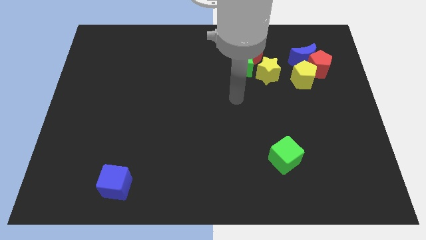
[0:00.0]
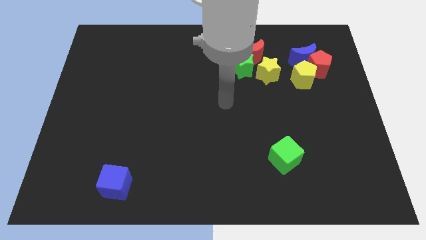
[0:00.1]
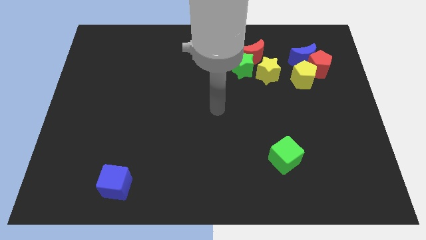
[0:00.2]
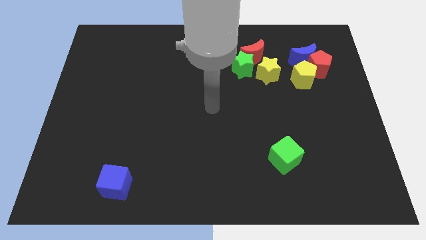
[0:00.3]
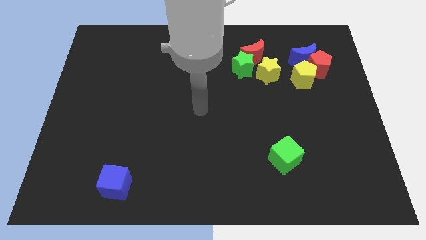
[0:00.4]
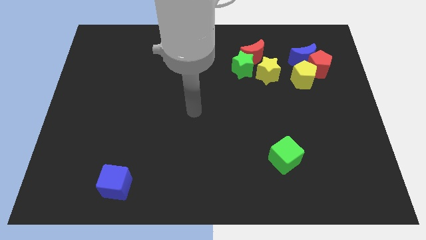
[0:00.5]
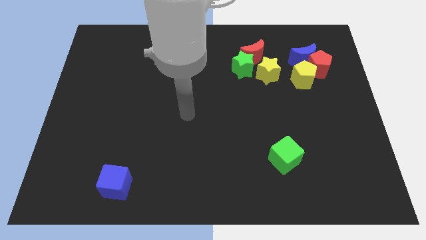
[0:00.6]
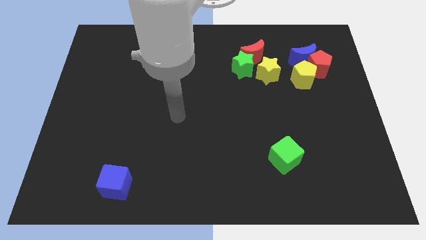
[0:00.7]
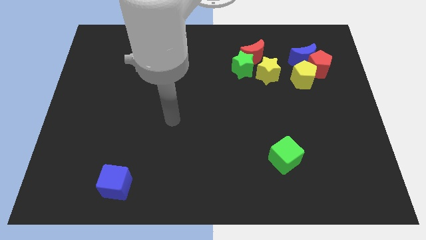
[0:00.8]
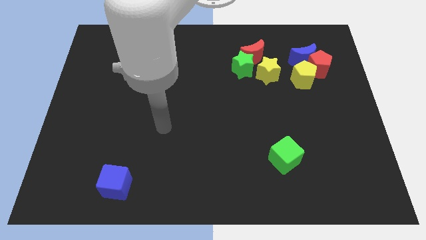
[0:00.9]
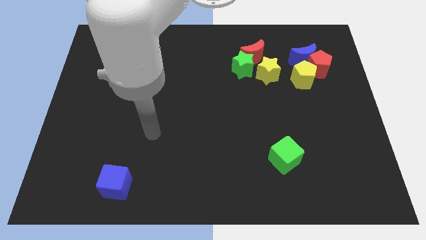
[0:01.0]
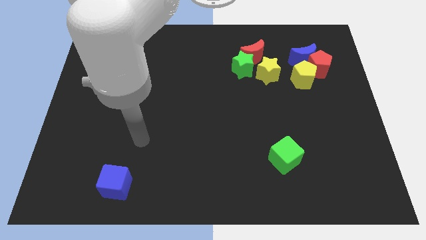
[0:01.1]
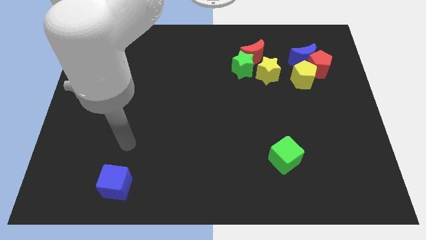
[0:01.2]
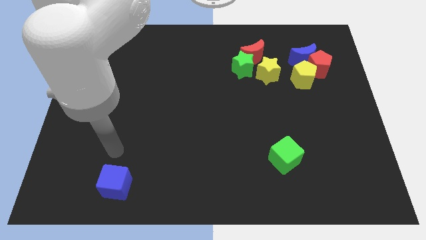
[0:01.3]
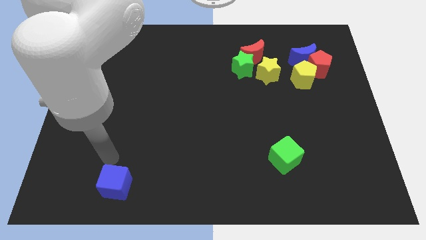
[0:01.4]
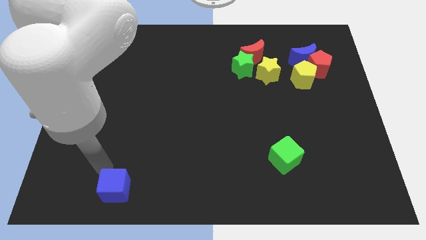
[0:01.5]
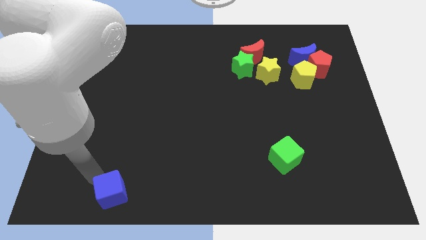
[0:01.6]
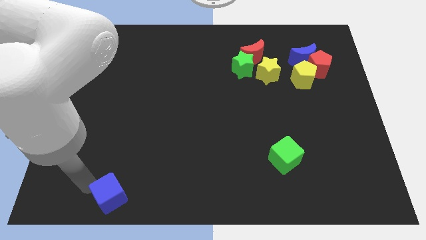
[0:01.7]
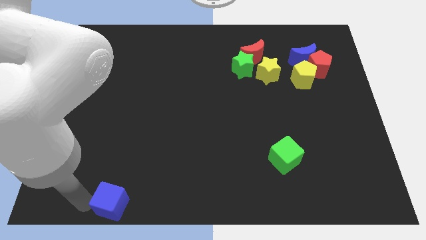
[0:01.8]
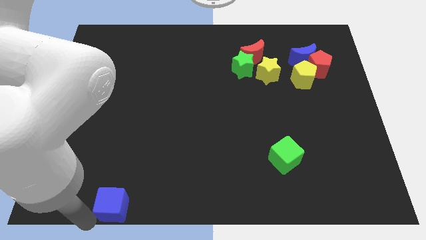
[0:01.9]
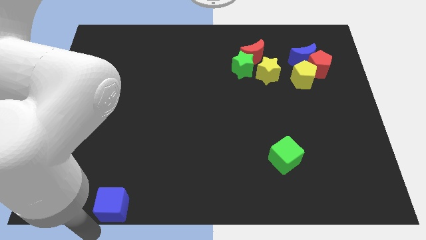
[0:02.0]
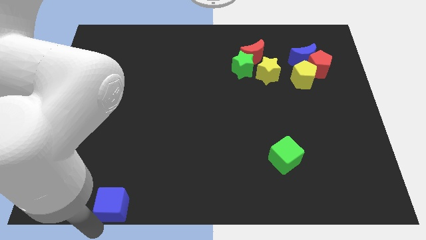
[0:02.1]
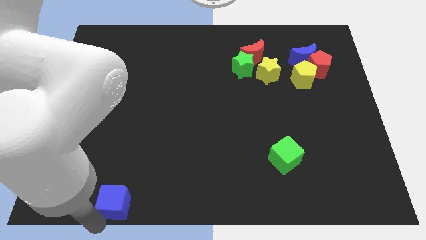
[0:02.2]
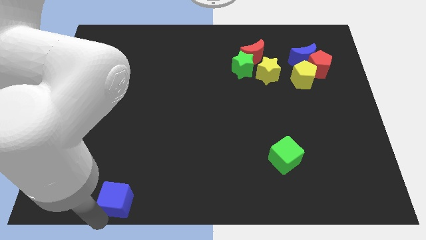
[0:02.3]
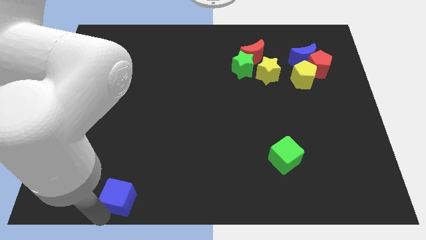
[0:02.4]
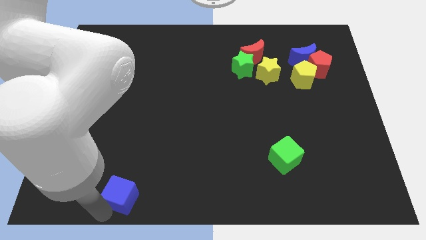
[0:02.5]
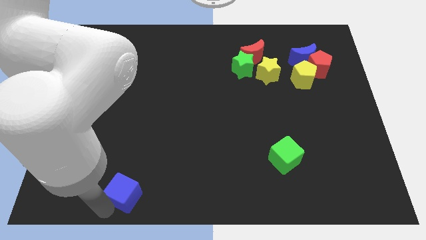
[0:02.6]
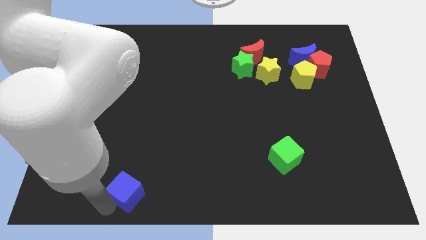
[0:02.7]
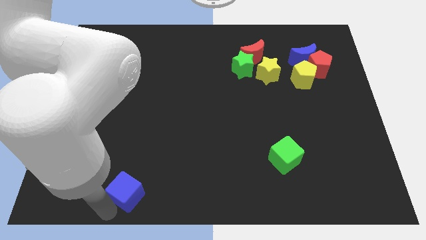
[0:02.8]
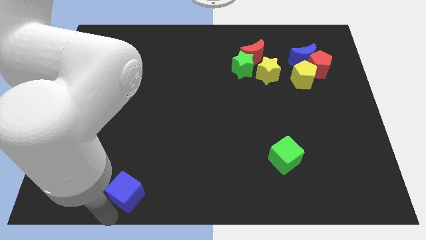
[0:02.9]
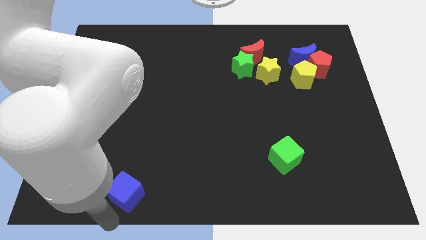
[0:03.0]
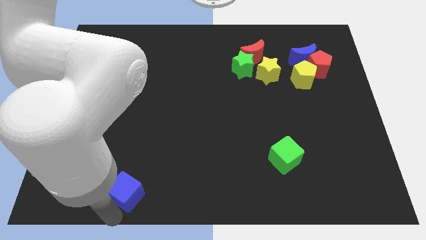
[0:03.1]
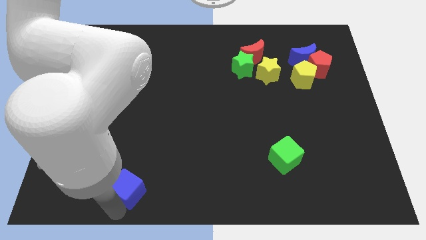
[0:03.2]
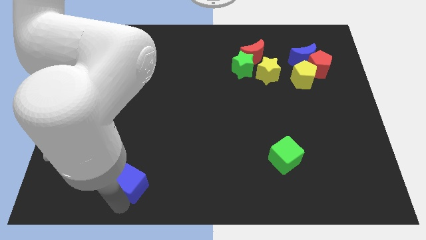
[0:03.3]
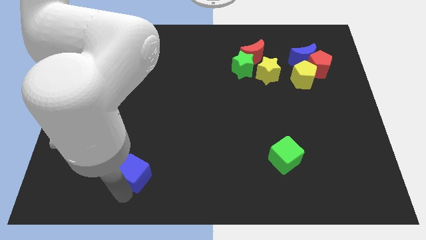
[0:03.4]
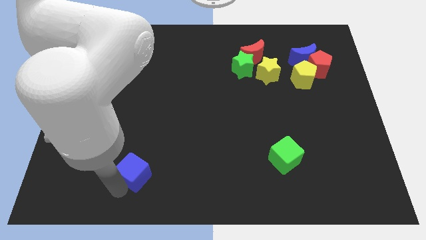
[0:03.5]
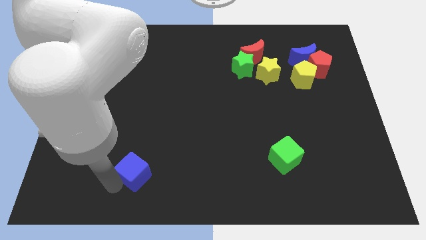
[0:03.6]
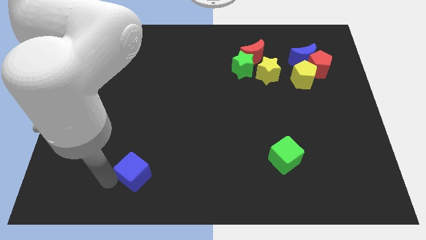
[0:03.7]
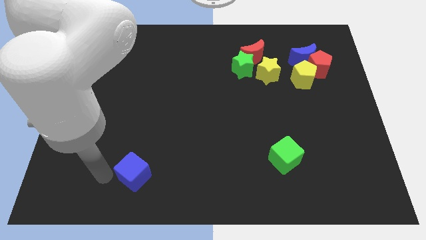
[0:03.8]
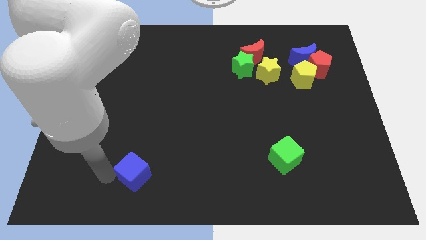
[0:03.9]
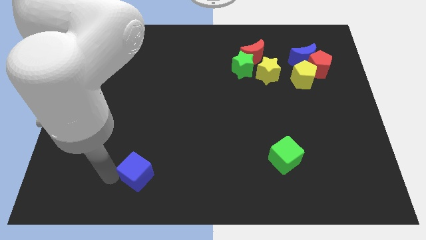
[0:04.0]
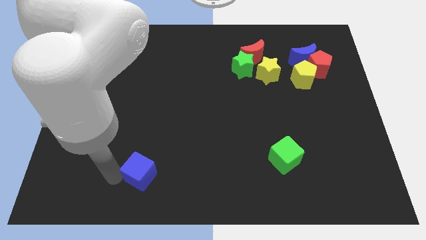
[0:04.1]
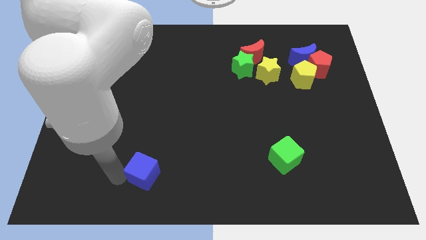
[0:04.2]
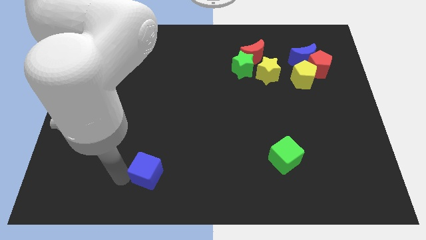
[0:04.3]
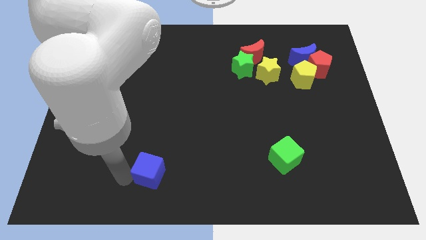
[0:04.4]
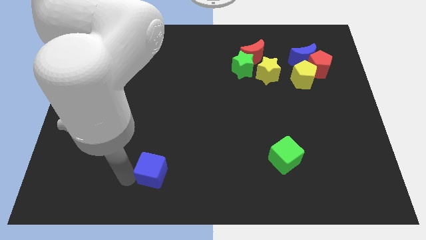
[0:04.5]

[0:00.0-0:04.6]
slide the blue cube slightly right

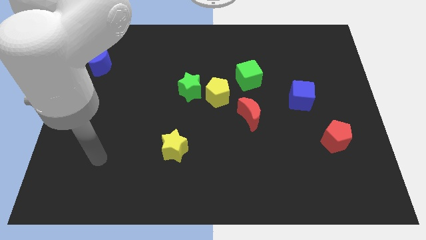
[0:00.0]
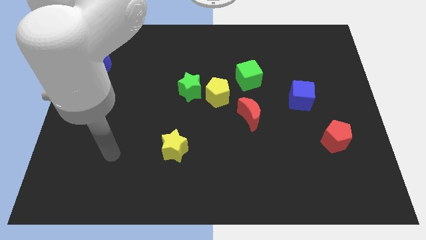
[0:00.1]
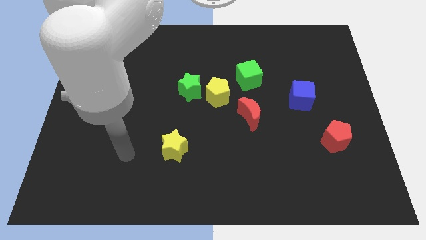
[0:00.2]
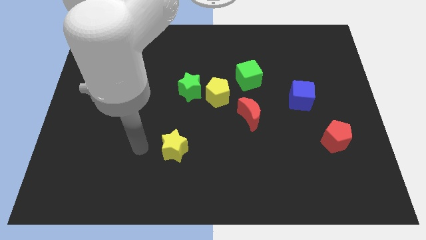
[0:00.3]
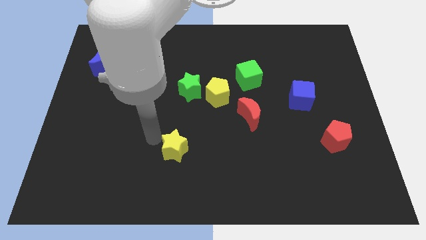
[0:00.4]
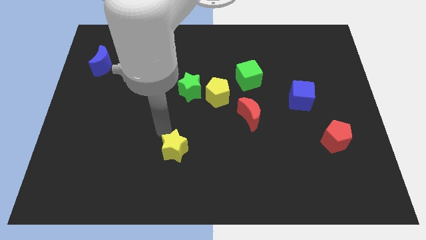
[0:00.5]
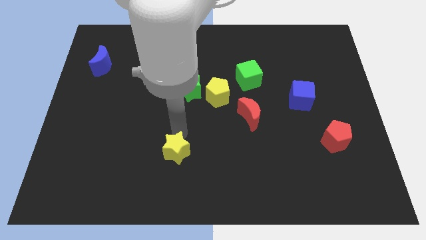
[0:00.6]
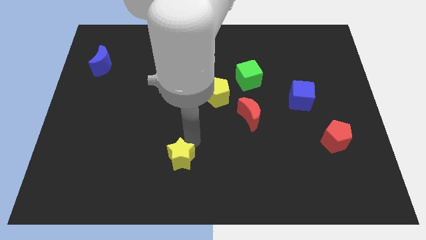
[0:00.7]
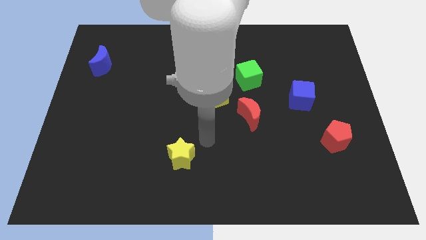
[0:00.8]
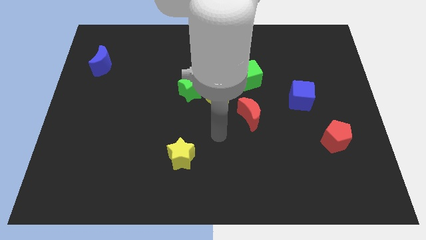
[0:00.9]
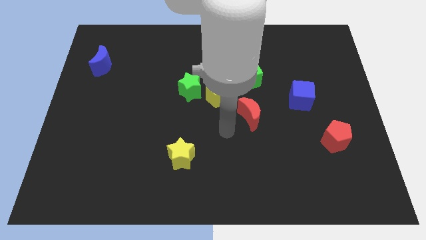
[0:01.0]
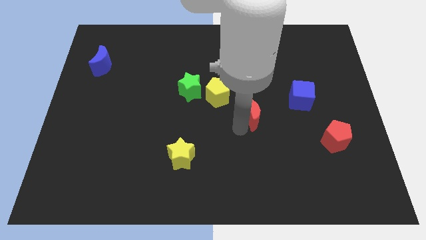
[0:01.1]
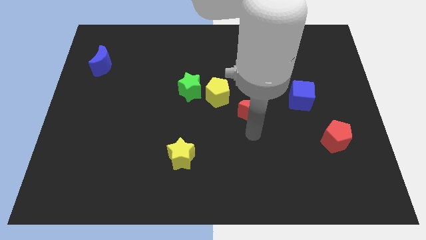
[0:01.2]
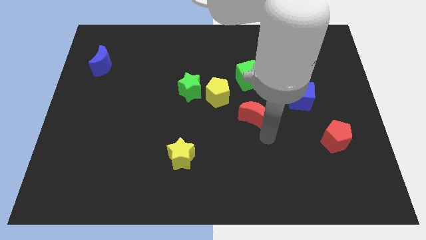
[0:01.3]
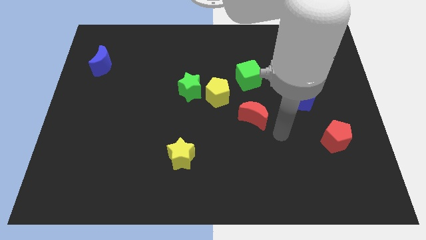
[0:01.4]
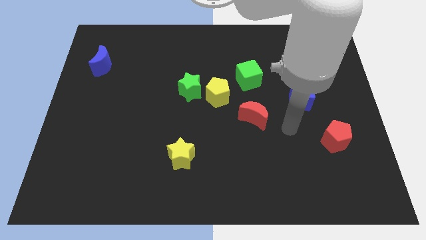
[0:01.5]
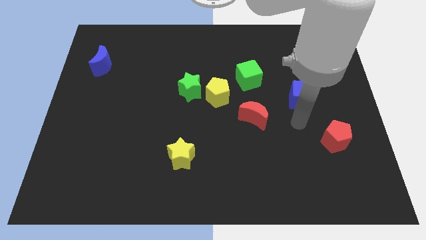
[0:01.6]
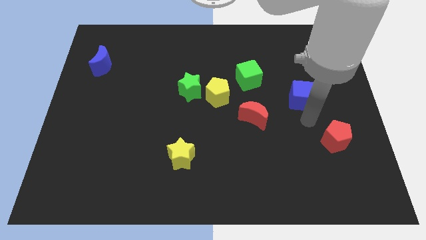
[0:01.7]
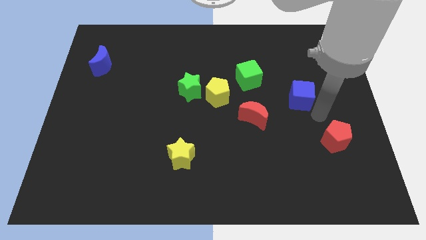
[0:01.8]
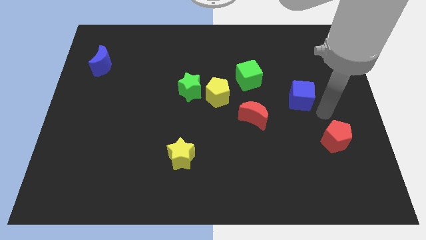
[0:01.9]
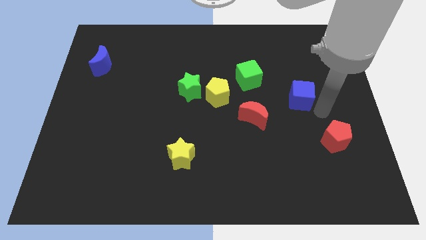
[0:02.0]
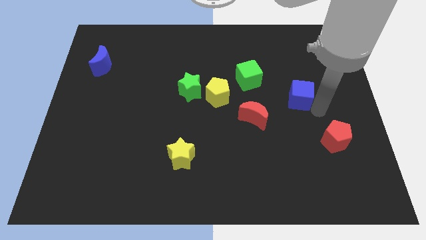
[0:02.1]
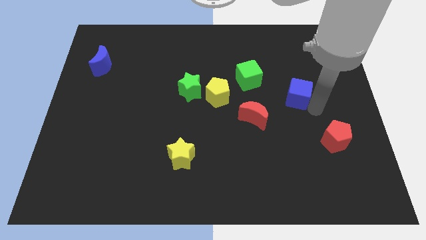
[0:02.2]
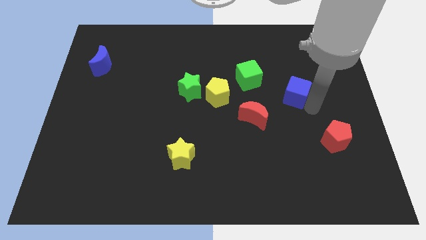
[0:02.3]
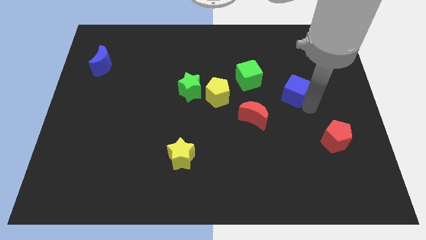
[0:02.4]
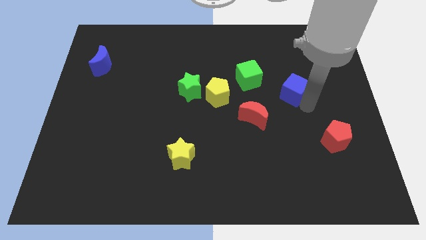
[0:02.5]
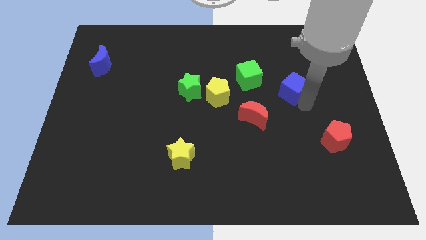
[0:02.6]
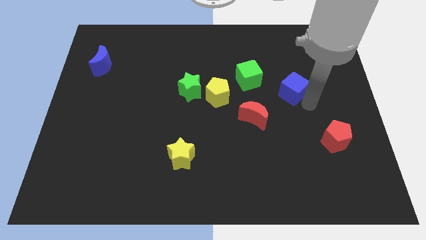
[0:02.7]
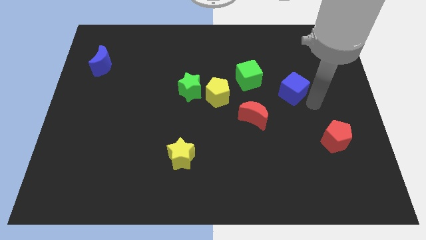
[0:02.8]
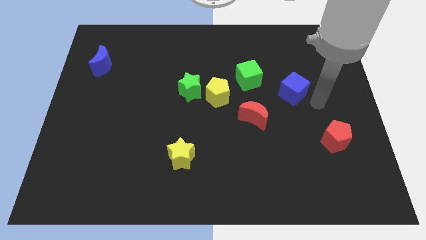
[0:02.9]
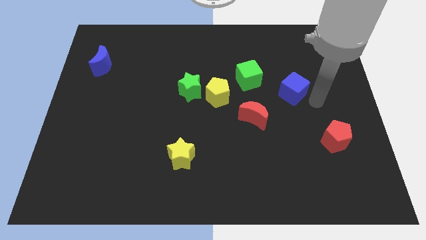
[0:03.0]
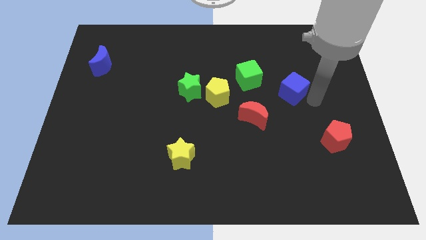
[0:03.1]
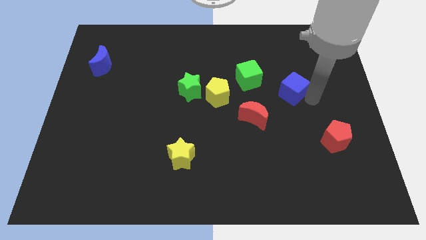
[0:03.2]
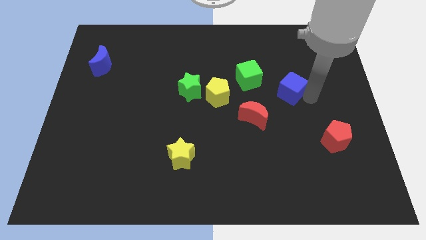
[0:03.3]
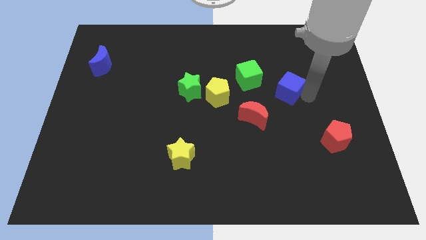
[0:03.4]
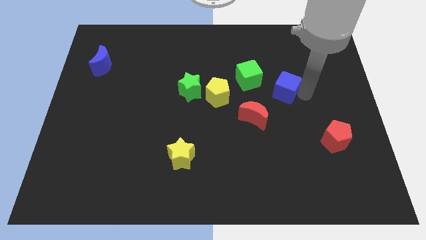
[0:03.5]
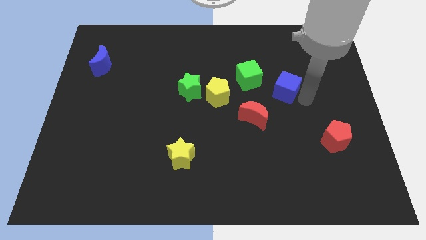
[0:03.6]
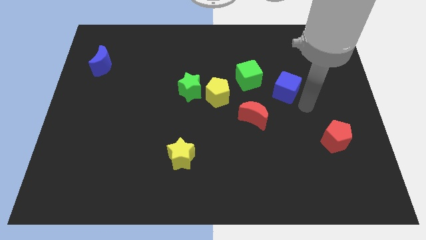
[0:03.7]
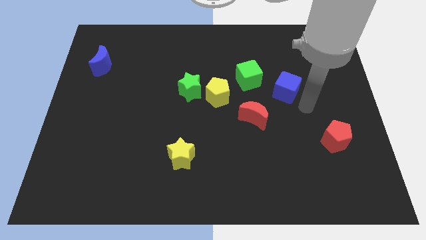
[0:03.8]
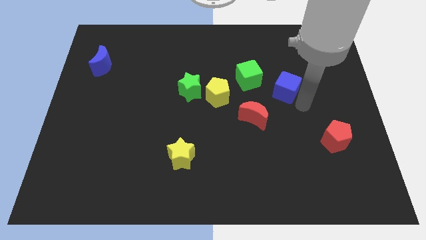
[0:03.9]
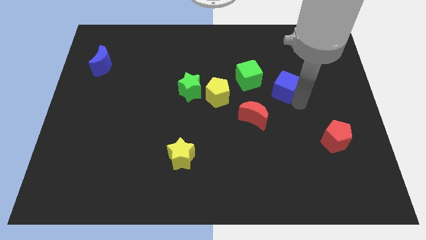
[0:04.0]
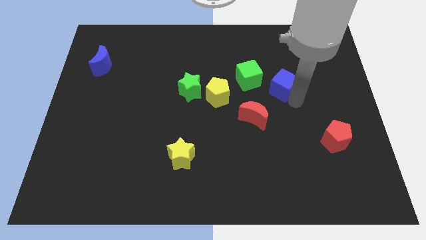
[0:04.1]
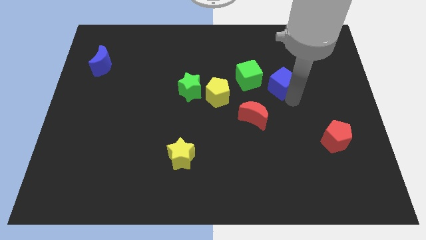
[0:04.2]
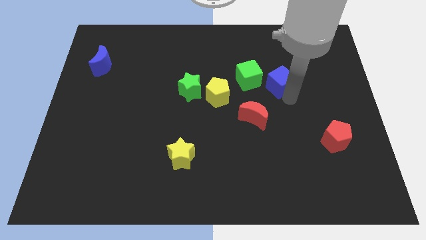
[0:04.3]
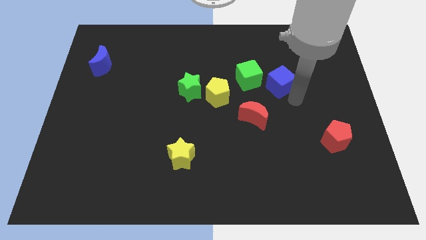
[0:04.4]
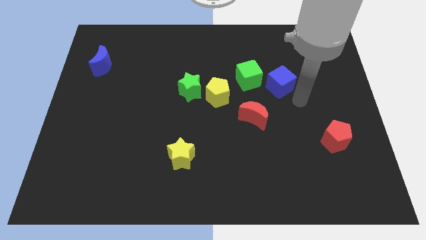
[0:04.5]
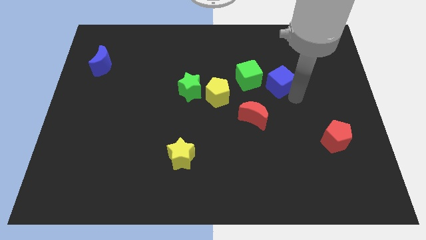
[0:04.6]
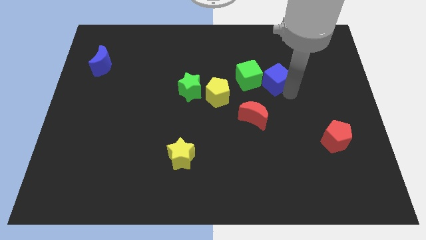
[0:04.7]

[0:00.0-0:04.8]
slide the blue cube up and to the left slightly
